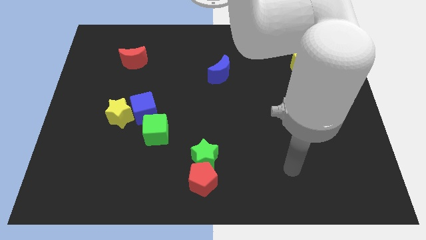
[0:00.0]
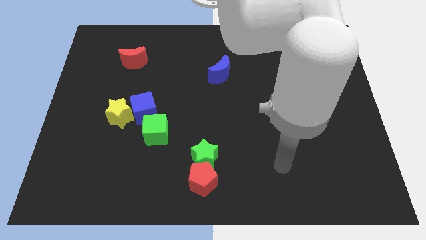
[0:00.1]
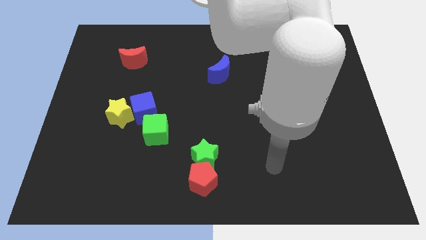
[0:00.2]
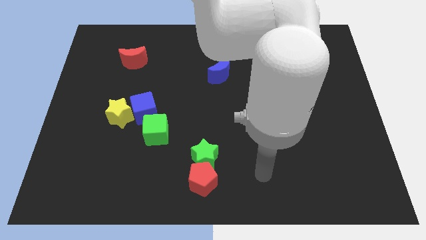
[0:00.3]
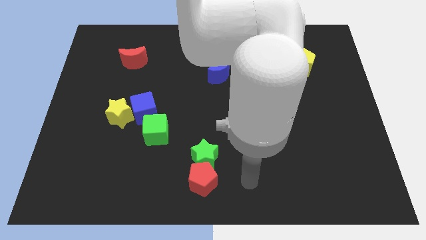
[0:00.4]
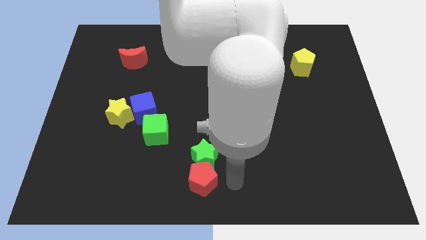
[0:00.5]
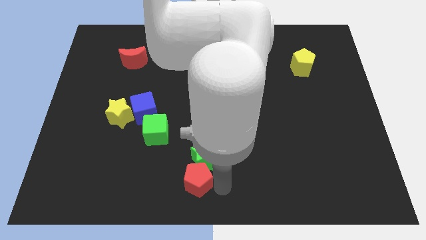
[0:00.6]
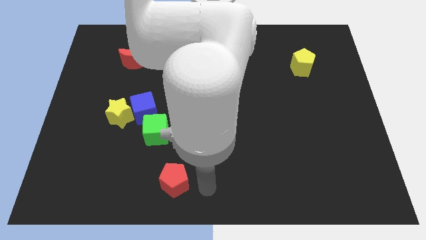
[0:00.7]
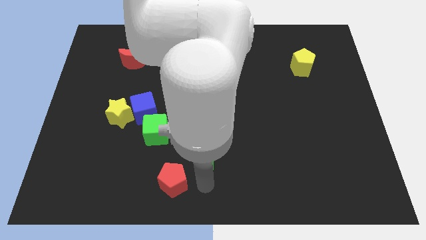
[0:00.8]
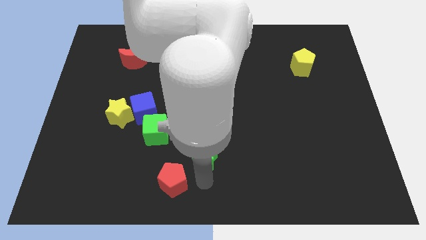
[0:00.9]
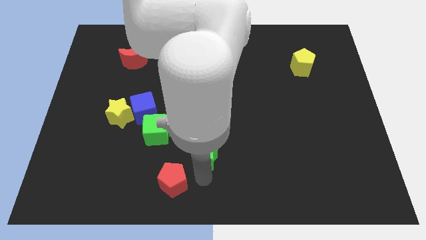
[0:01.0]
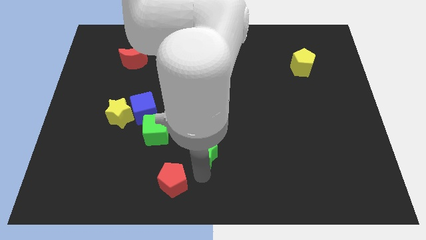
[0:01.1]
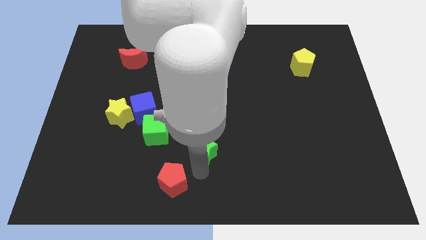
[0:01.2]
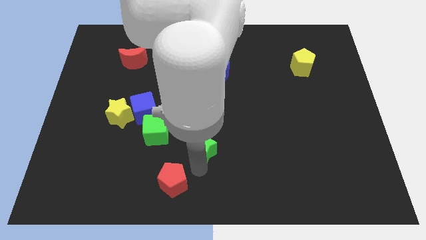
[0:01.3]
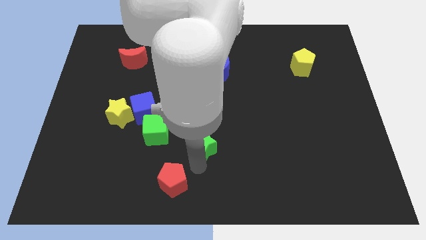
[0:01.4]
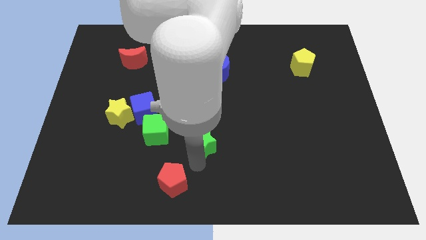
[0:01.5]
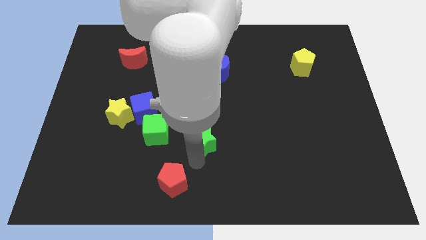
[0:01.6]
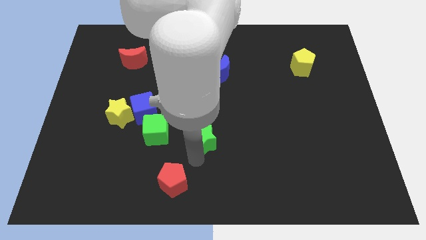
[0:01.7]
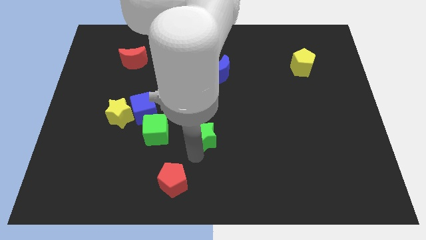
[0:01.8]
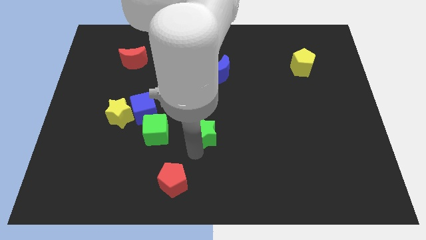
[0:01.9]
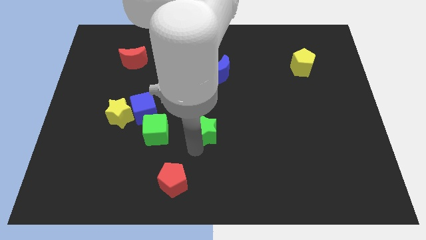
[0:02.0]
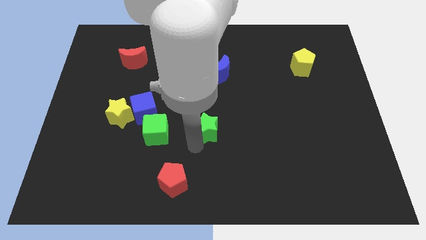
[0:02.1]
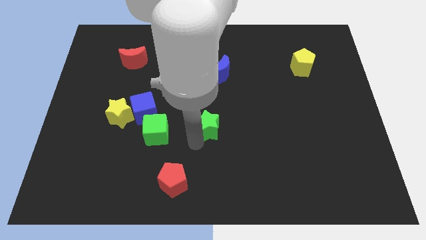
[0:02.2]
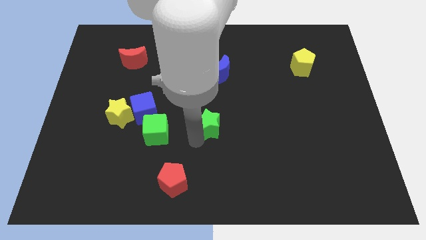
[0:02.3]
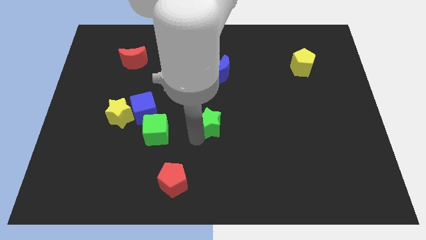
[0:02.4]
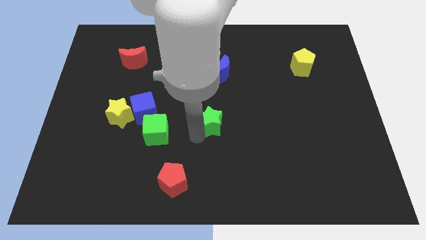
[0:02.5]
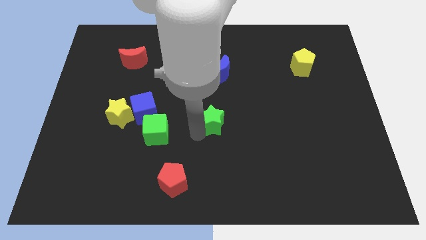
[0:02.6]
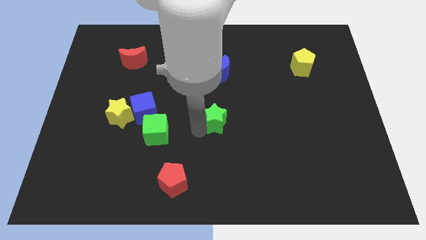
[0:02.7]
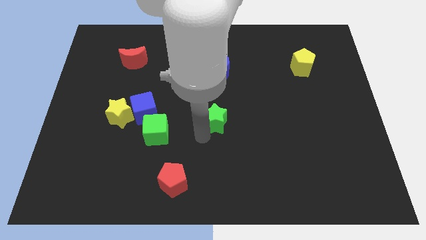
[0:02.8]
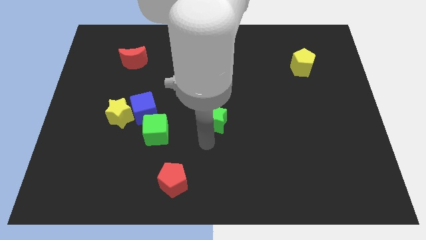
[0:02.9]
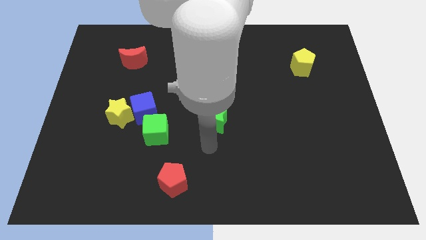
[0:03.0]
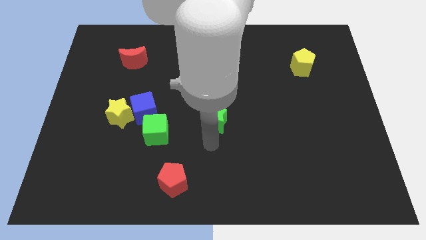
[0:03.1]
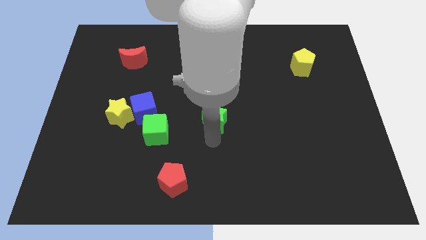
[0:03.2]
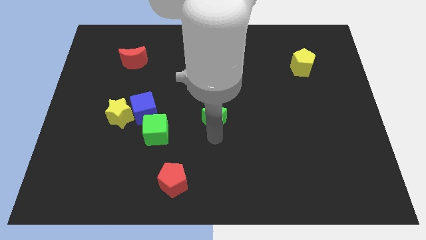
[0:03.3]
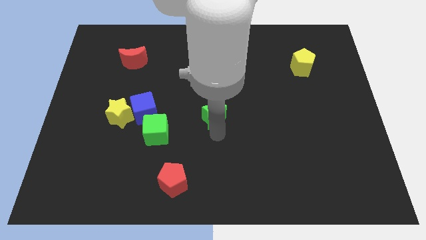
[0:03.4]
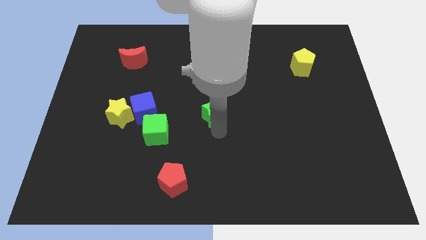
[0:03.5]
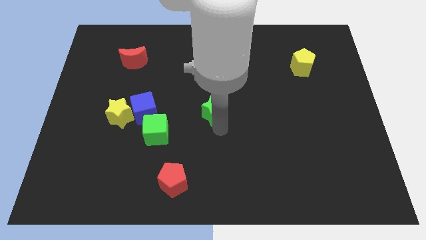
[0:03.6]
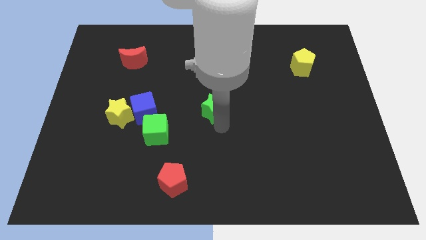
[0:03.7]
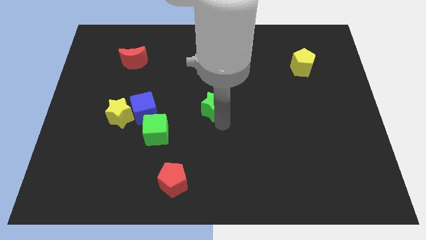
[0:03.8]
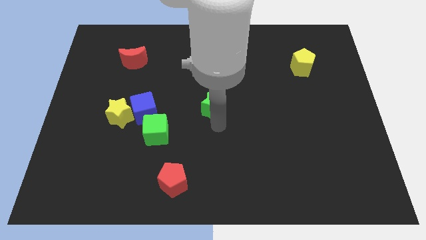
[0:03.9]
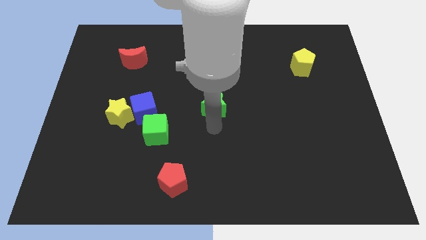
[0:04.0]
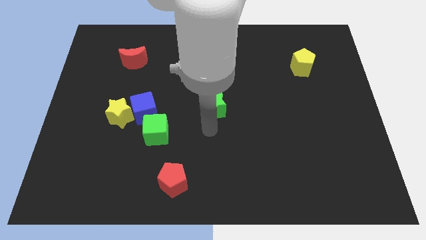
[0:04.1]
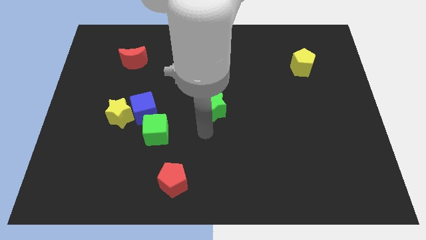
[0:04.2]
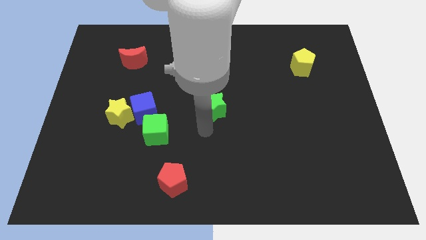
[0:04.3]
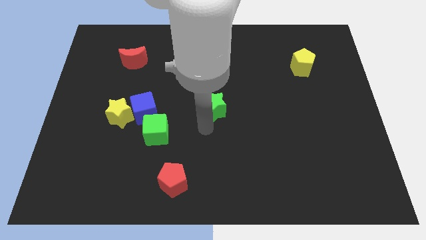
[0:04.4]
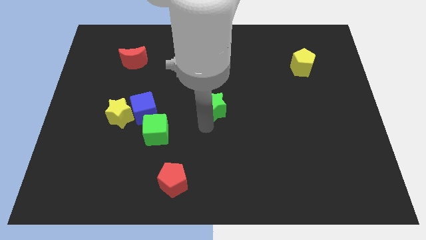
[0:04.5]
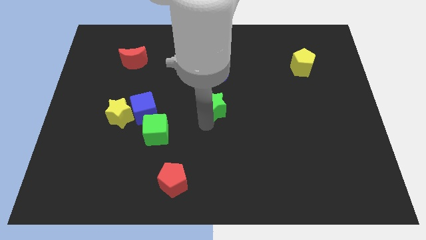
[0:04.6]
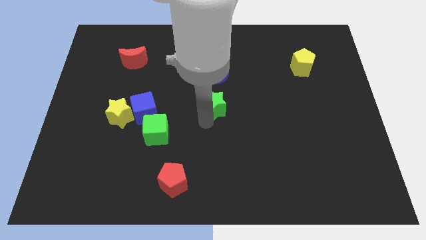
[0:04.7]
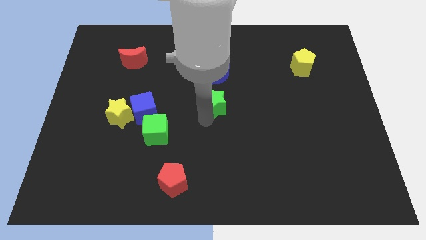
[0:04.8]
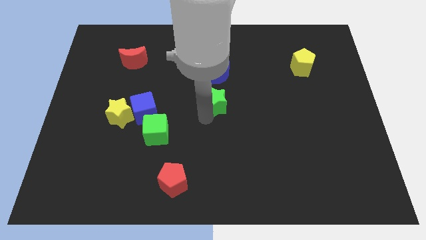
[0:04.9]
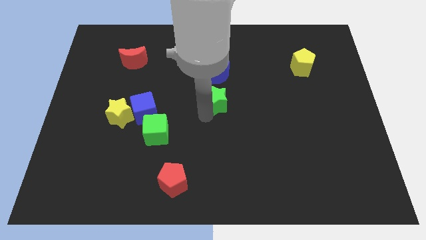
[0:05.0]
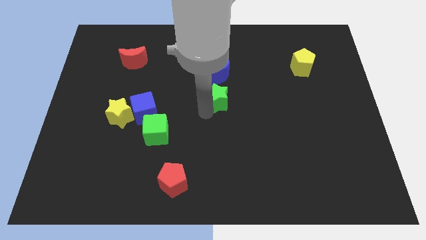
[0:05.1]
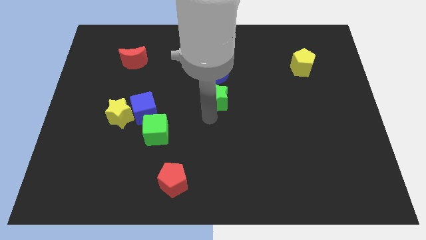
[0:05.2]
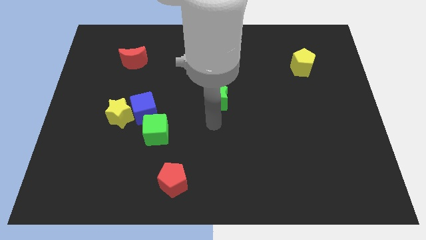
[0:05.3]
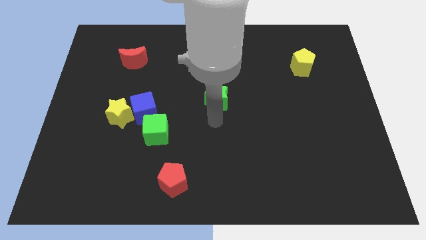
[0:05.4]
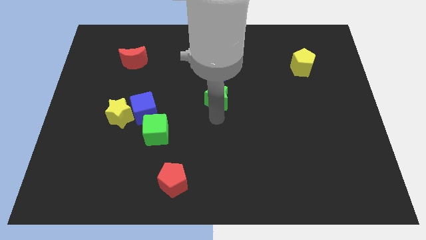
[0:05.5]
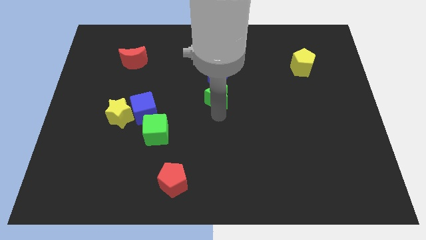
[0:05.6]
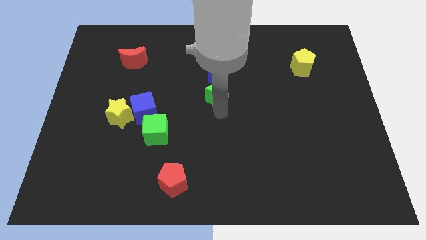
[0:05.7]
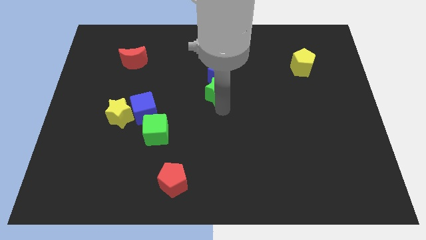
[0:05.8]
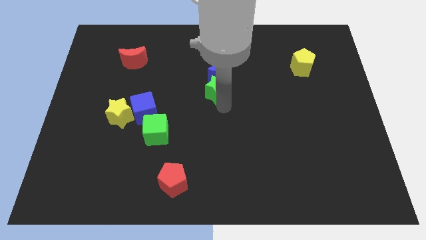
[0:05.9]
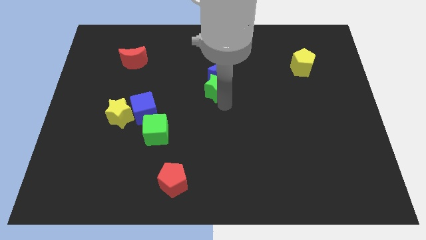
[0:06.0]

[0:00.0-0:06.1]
push the green star close to the blue moon

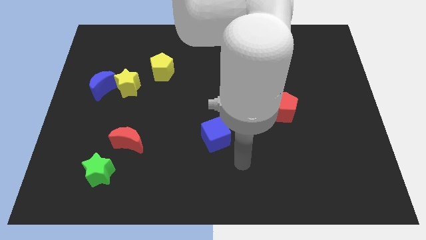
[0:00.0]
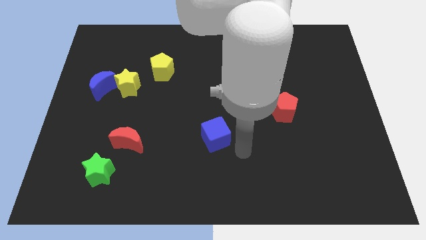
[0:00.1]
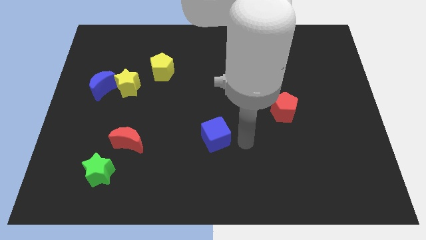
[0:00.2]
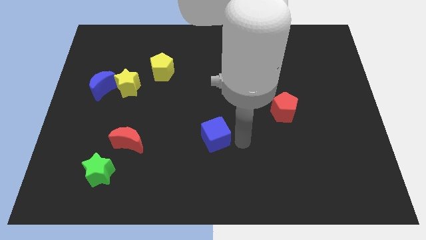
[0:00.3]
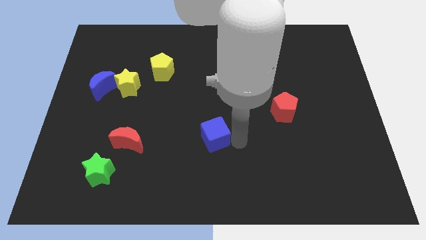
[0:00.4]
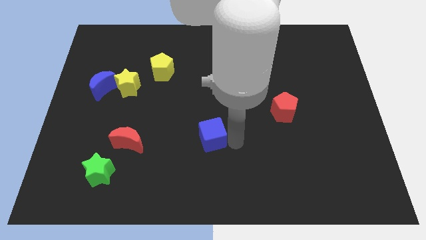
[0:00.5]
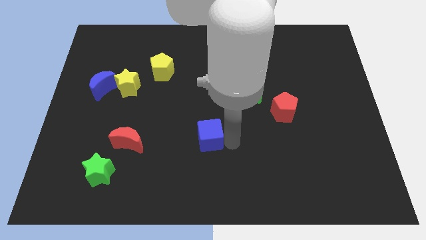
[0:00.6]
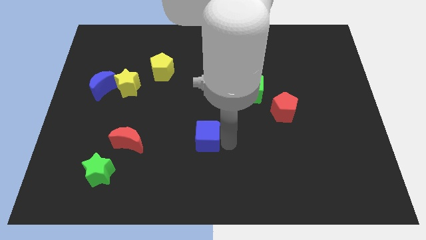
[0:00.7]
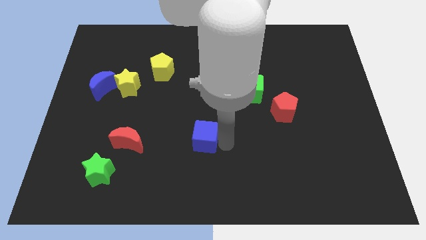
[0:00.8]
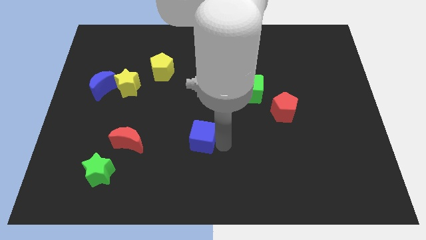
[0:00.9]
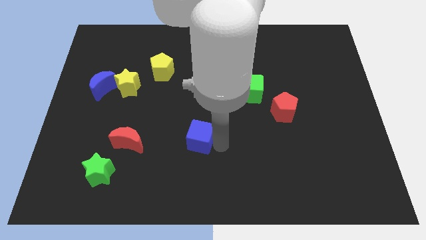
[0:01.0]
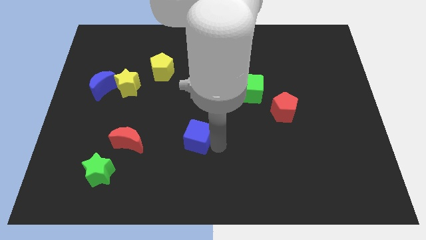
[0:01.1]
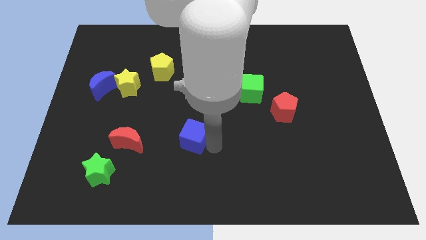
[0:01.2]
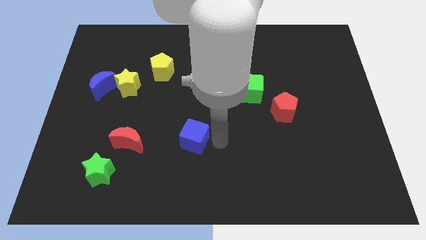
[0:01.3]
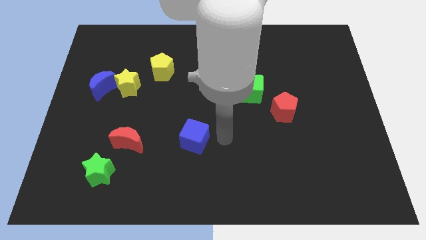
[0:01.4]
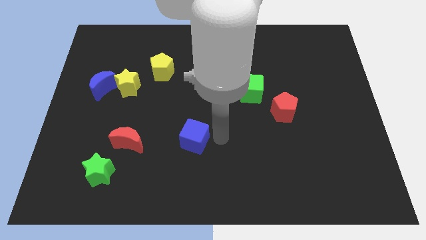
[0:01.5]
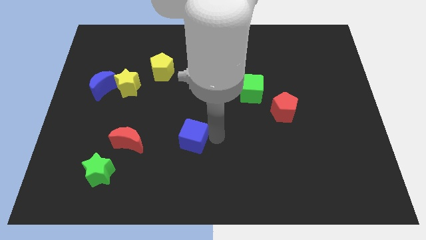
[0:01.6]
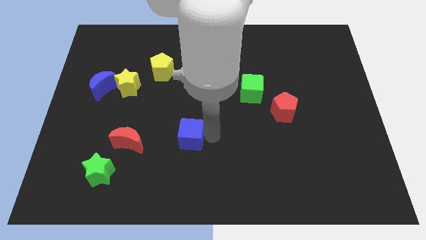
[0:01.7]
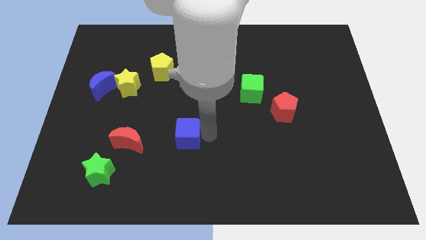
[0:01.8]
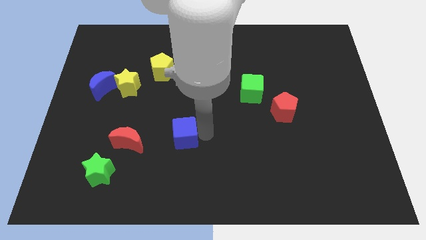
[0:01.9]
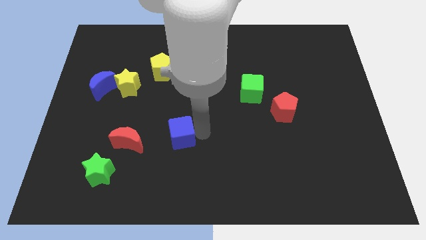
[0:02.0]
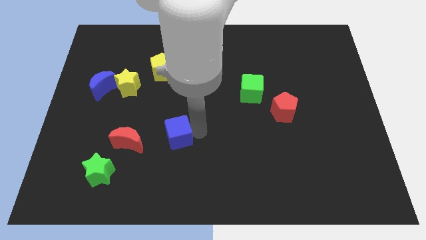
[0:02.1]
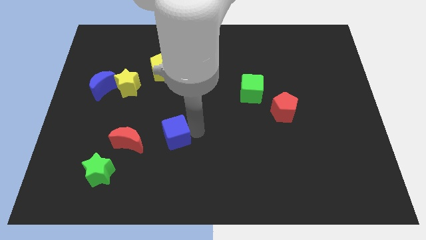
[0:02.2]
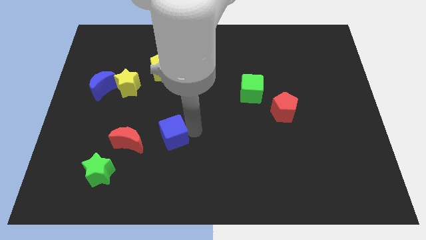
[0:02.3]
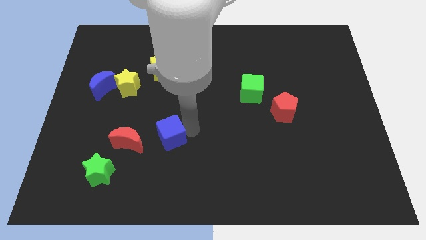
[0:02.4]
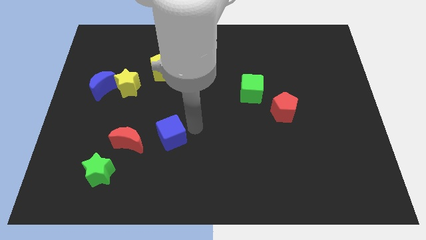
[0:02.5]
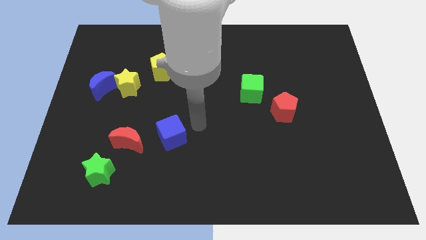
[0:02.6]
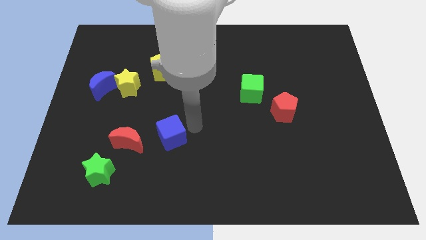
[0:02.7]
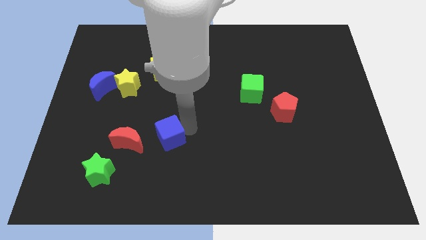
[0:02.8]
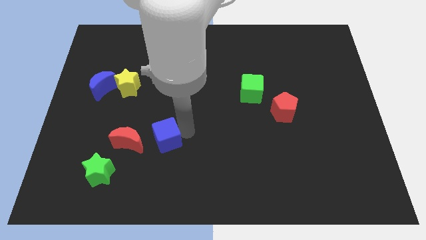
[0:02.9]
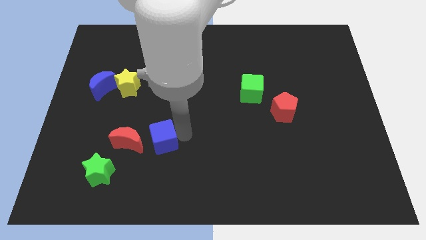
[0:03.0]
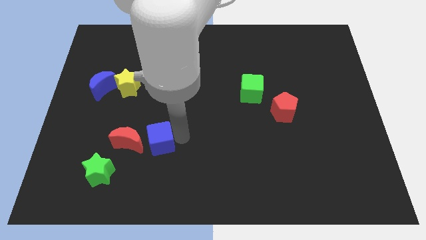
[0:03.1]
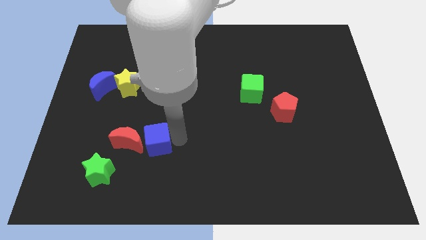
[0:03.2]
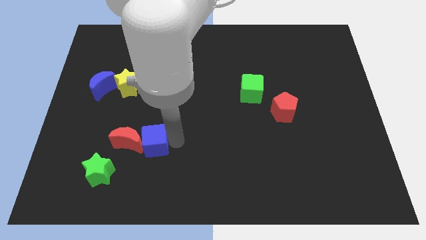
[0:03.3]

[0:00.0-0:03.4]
put the blue cube to the red moon
